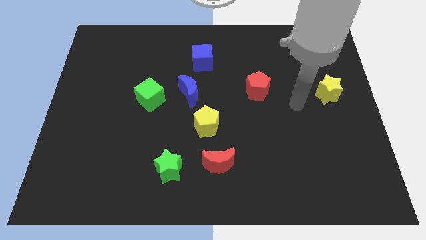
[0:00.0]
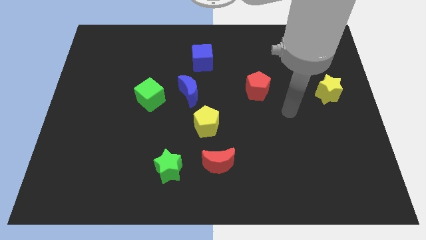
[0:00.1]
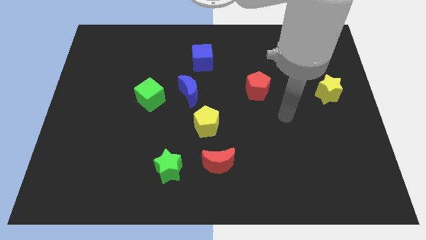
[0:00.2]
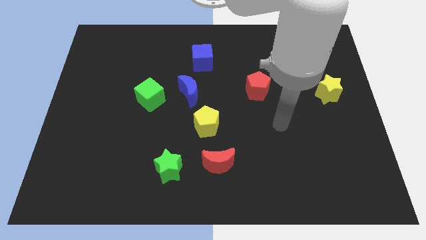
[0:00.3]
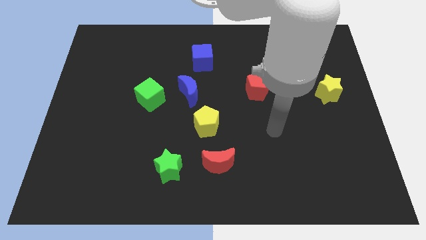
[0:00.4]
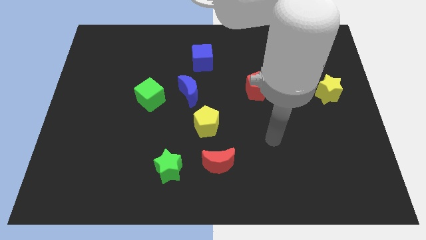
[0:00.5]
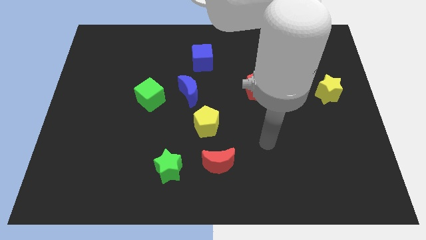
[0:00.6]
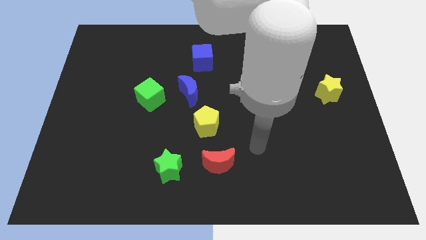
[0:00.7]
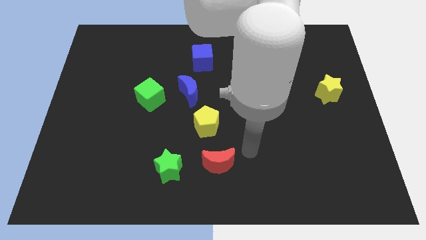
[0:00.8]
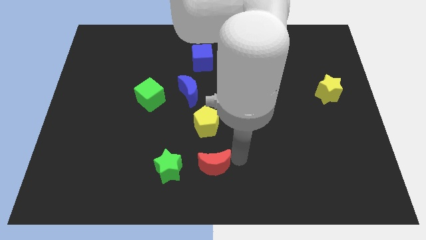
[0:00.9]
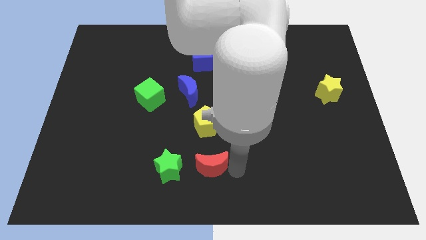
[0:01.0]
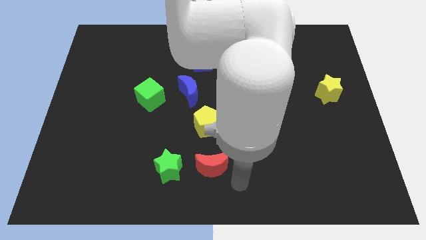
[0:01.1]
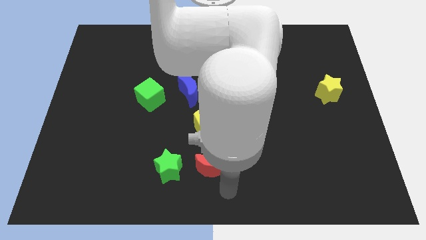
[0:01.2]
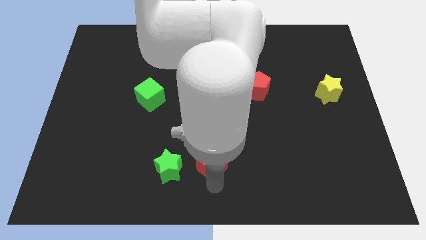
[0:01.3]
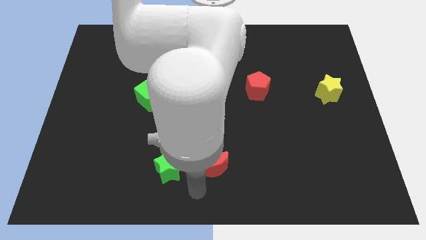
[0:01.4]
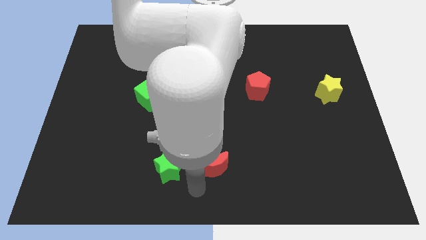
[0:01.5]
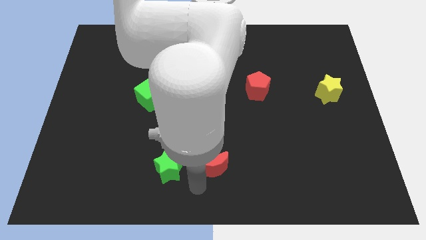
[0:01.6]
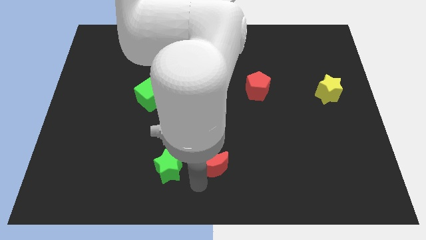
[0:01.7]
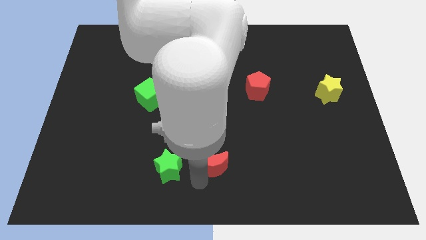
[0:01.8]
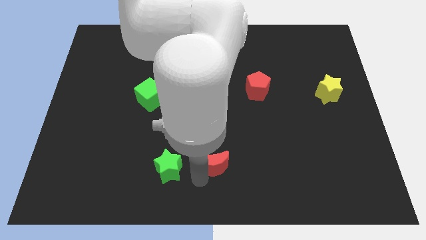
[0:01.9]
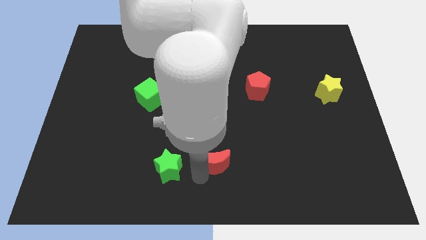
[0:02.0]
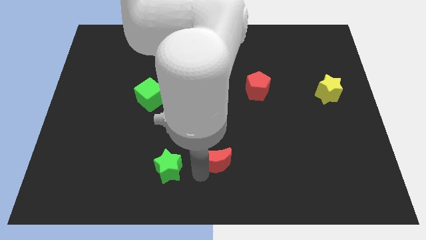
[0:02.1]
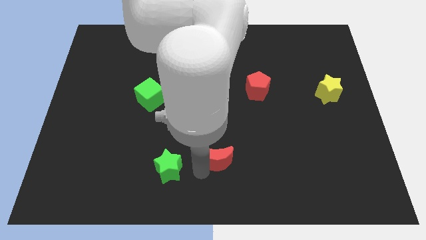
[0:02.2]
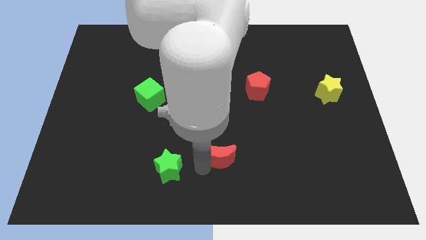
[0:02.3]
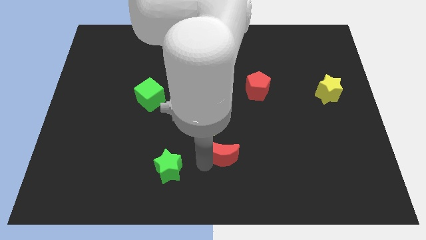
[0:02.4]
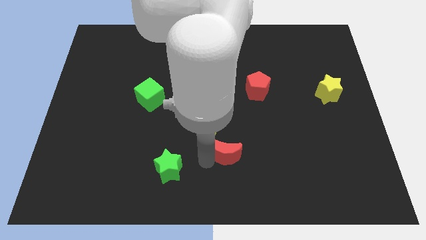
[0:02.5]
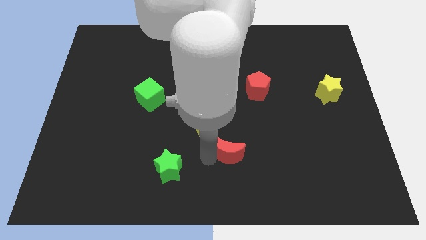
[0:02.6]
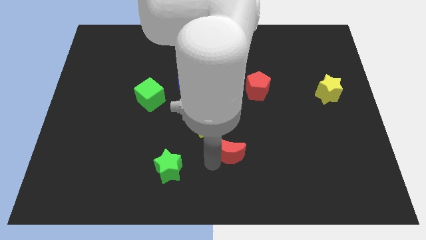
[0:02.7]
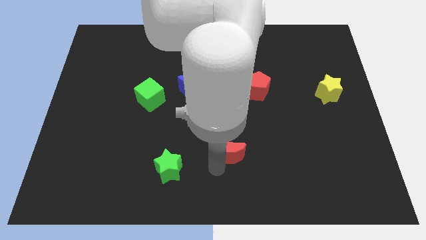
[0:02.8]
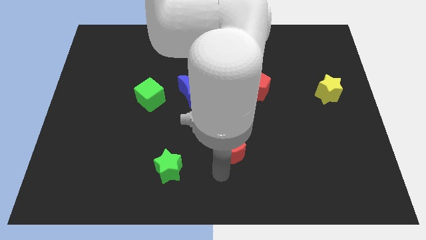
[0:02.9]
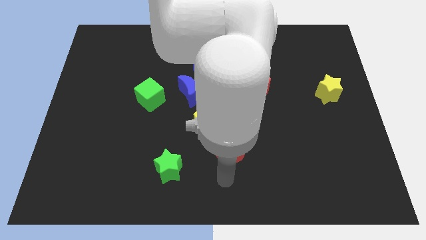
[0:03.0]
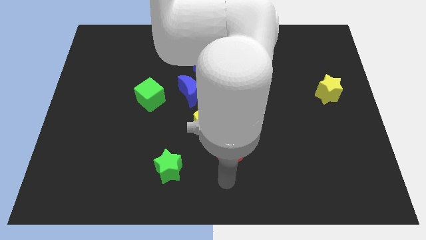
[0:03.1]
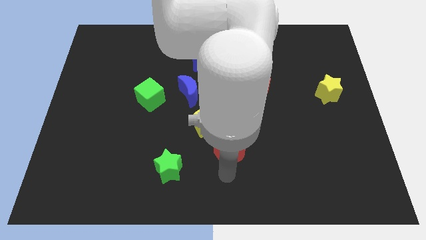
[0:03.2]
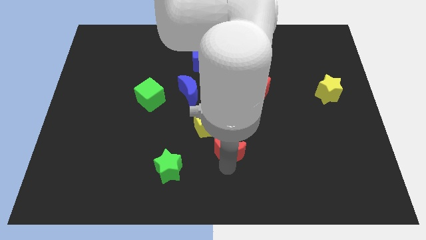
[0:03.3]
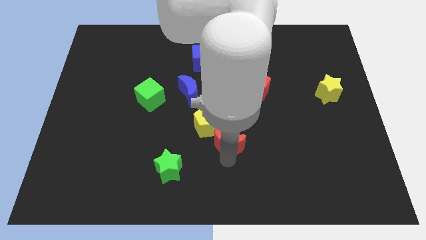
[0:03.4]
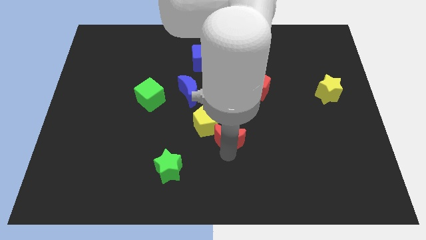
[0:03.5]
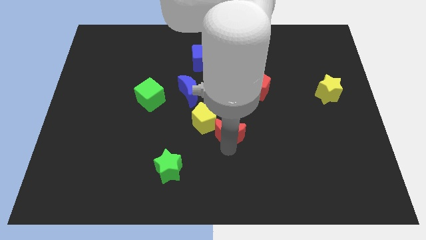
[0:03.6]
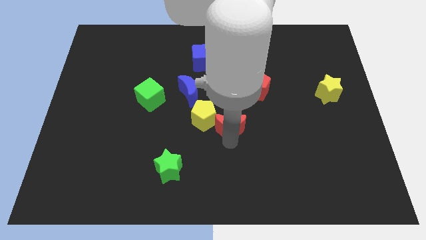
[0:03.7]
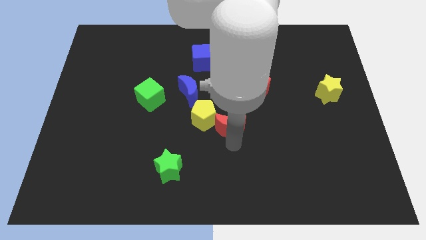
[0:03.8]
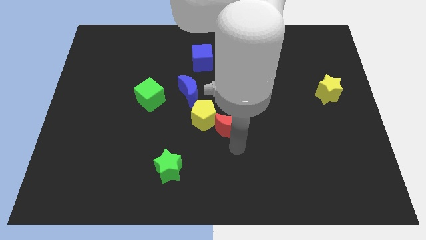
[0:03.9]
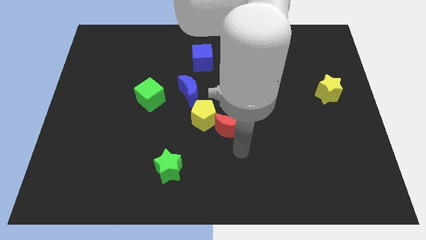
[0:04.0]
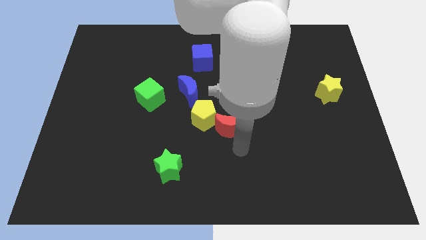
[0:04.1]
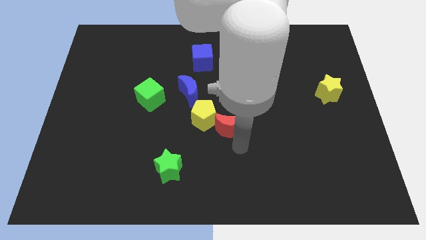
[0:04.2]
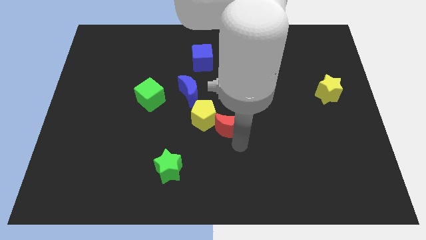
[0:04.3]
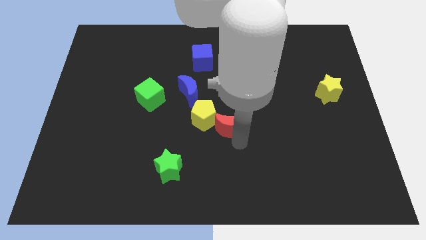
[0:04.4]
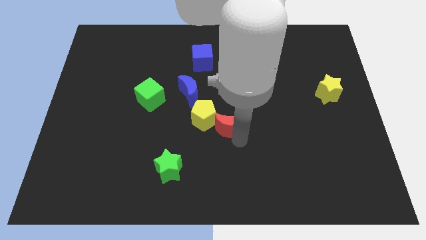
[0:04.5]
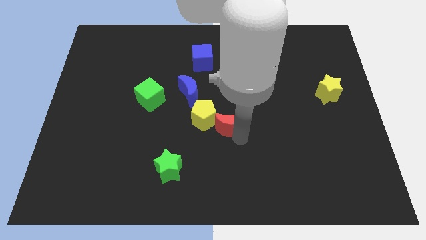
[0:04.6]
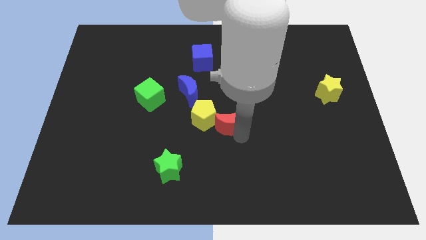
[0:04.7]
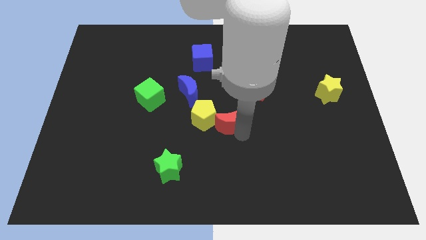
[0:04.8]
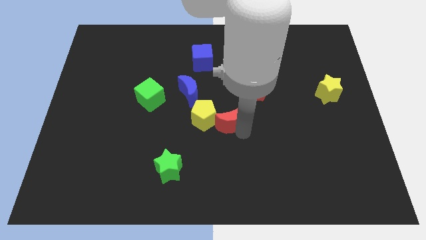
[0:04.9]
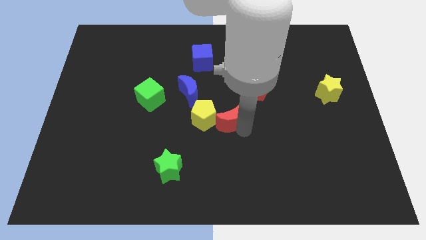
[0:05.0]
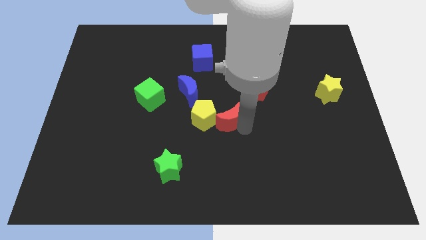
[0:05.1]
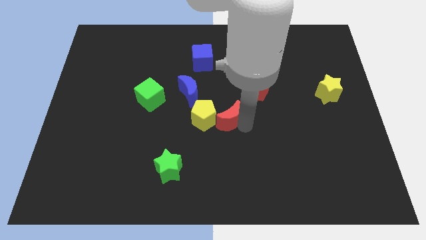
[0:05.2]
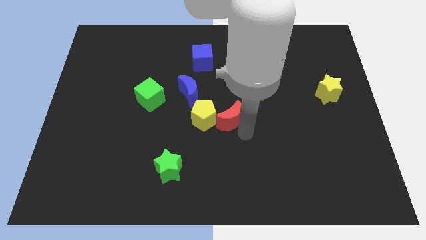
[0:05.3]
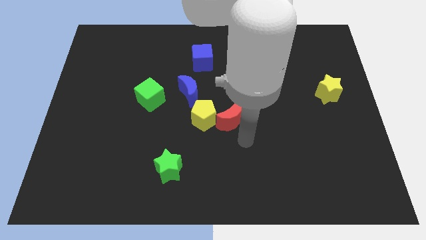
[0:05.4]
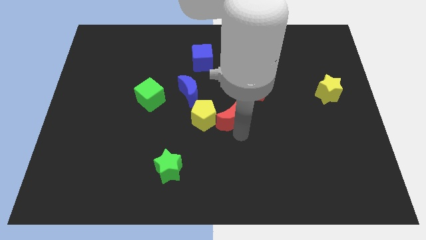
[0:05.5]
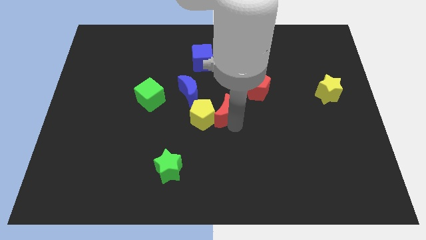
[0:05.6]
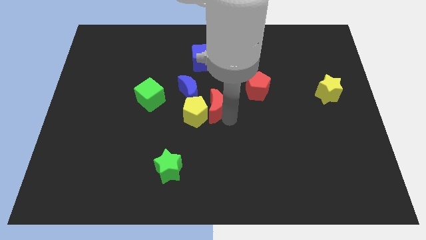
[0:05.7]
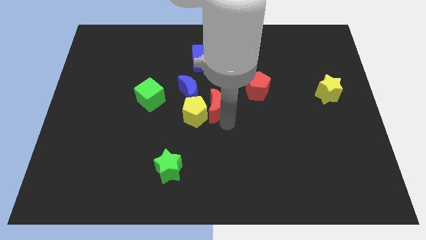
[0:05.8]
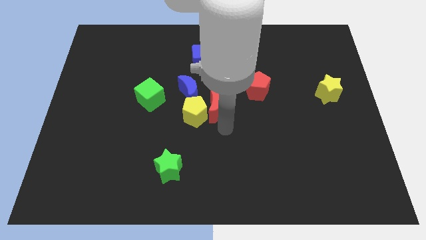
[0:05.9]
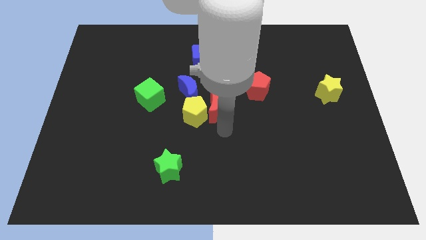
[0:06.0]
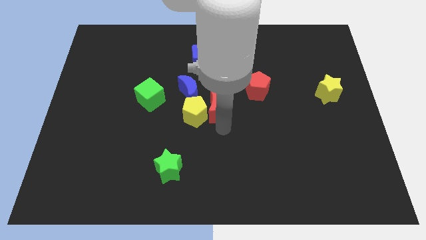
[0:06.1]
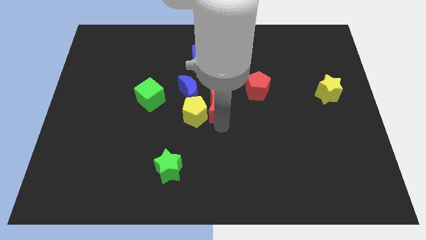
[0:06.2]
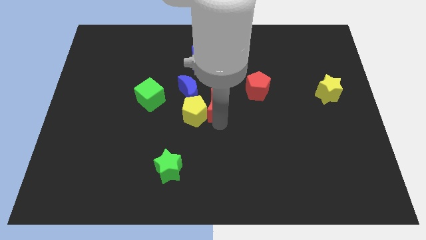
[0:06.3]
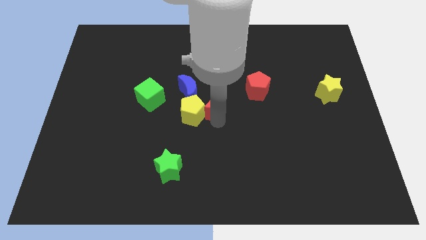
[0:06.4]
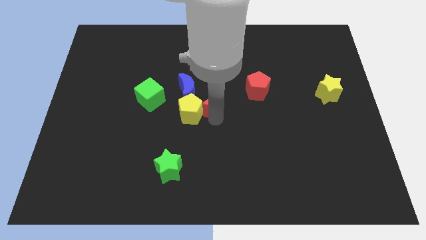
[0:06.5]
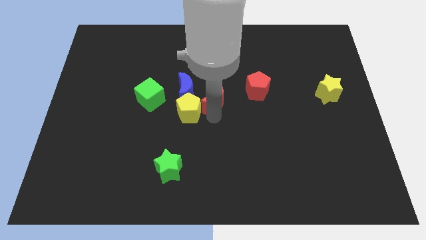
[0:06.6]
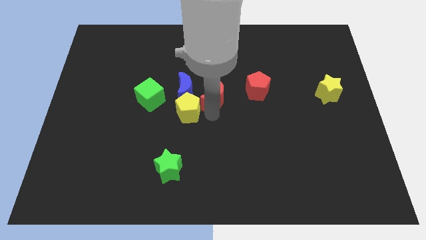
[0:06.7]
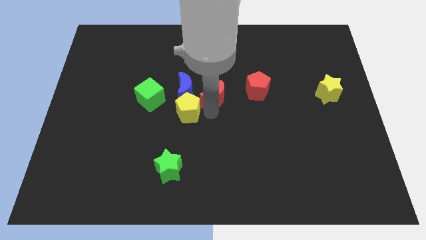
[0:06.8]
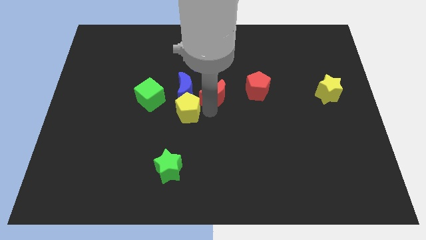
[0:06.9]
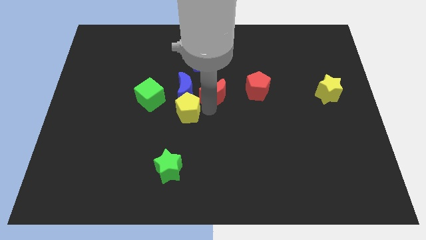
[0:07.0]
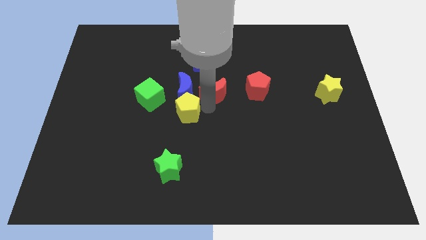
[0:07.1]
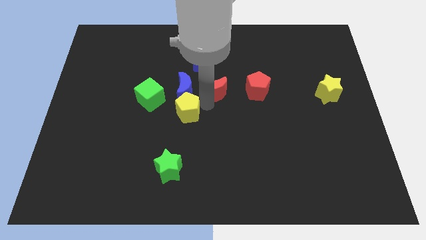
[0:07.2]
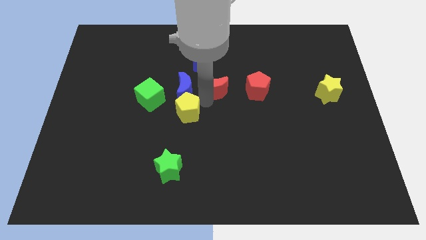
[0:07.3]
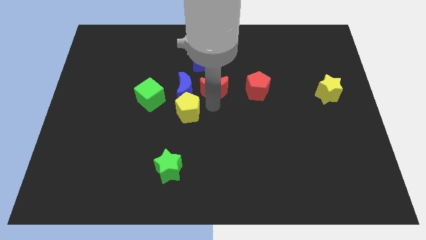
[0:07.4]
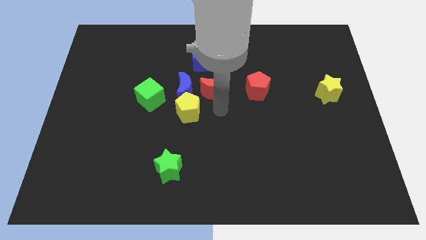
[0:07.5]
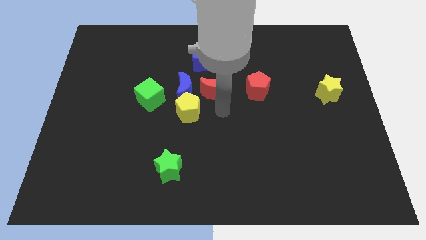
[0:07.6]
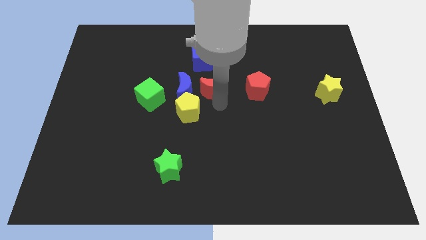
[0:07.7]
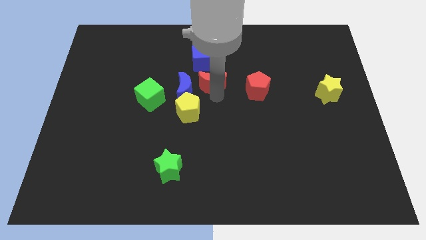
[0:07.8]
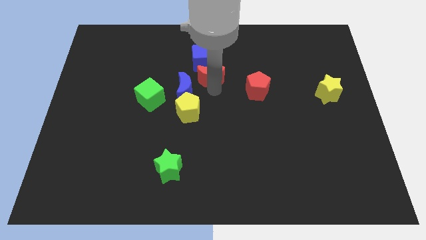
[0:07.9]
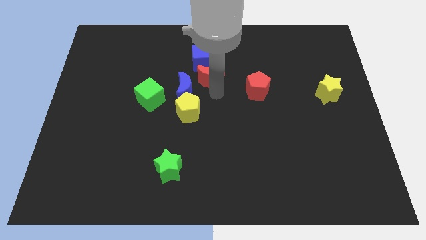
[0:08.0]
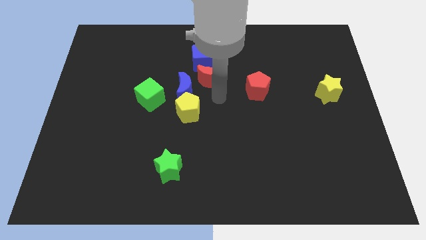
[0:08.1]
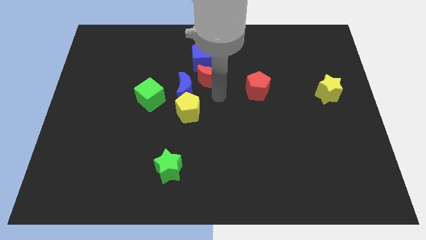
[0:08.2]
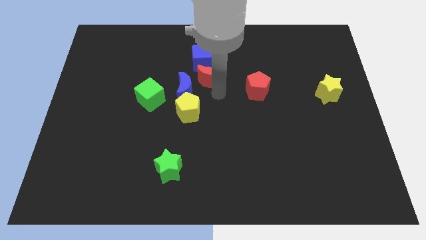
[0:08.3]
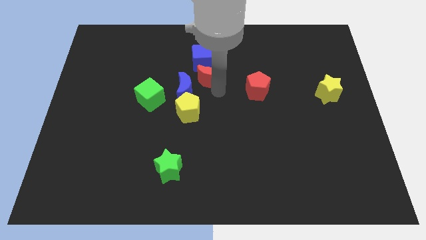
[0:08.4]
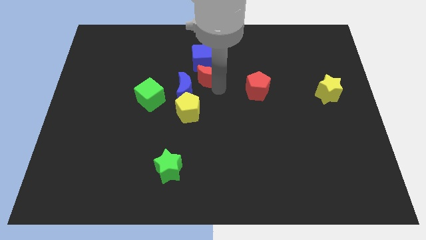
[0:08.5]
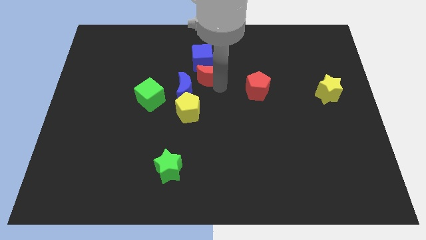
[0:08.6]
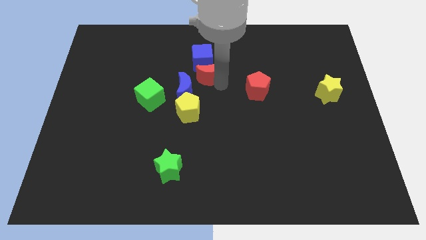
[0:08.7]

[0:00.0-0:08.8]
push the red moon next to the blue cube
